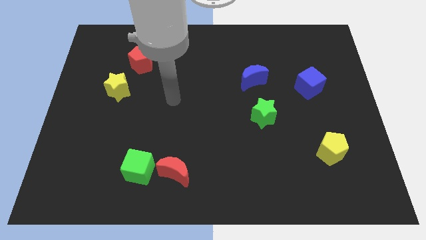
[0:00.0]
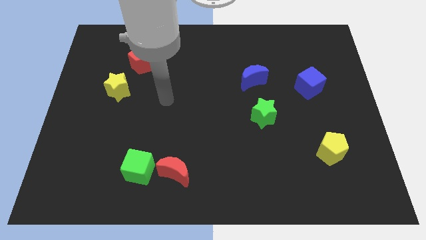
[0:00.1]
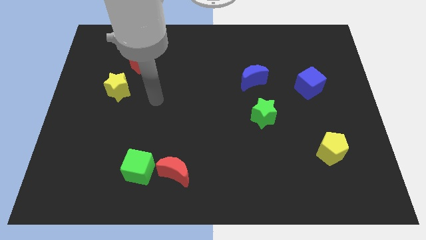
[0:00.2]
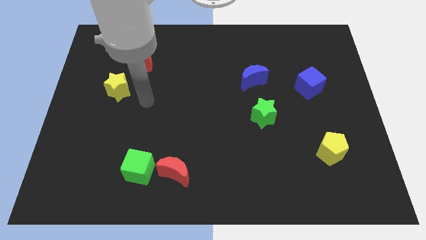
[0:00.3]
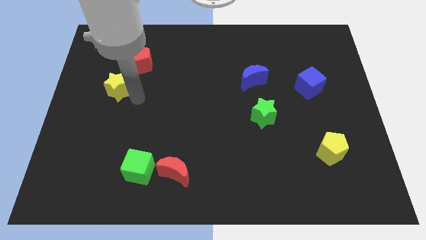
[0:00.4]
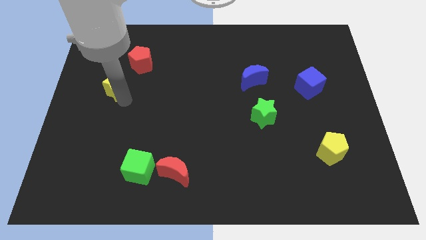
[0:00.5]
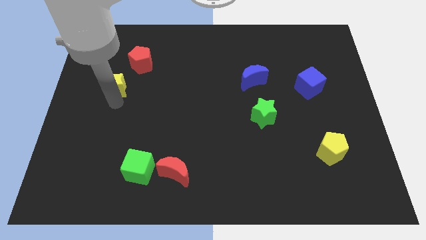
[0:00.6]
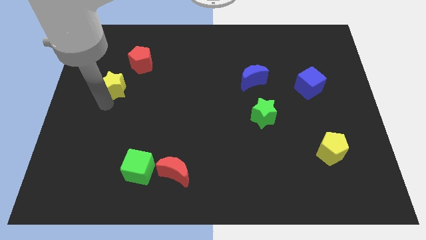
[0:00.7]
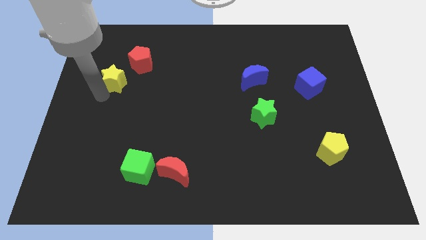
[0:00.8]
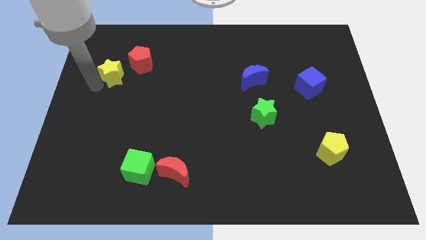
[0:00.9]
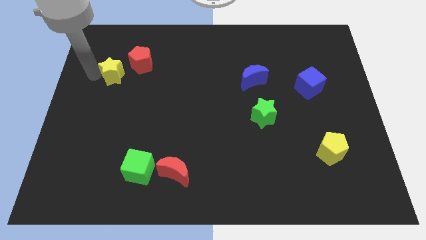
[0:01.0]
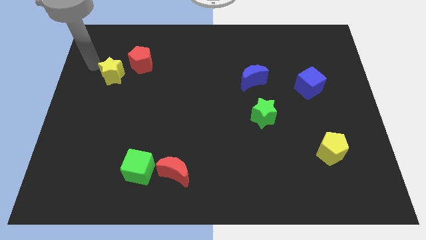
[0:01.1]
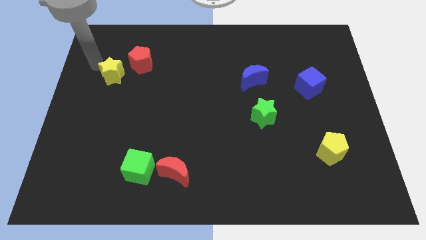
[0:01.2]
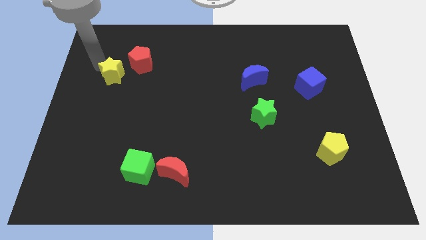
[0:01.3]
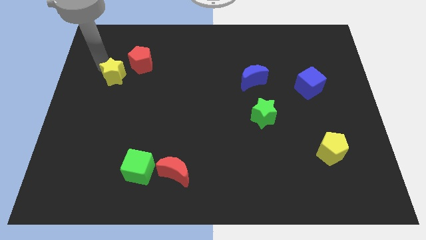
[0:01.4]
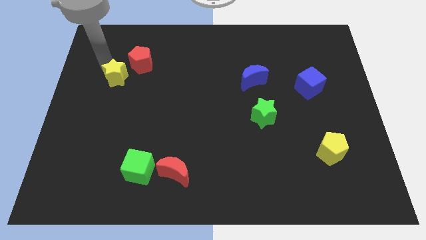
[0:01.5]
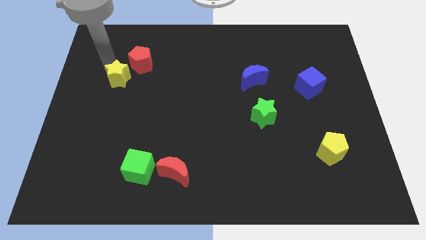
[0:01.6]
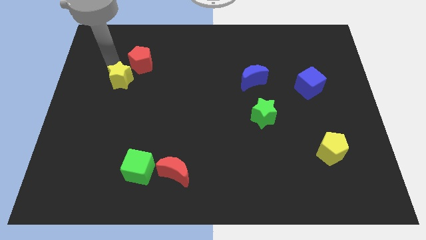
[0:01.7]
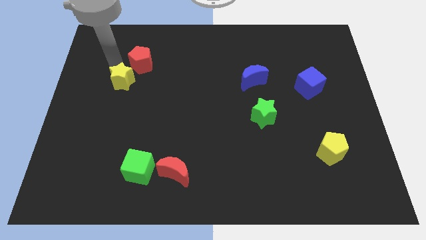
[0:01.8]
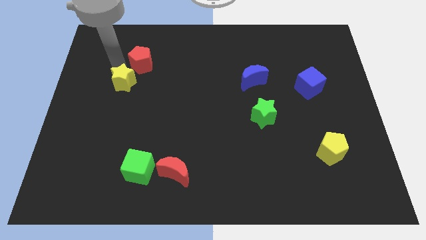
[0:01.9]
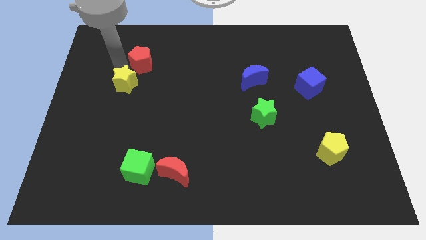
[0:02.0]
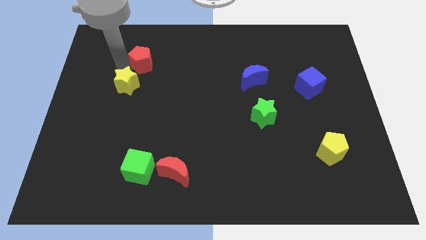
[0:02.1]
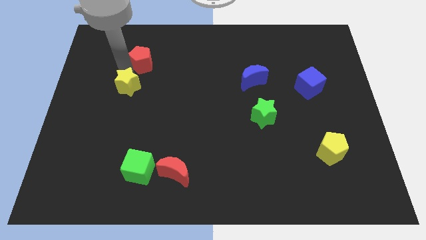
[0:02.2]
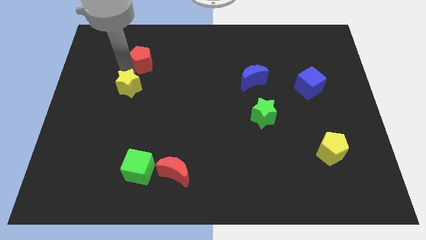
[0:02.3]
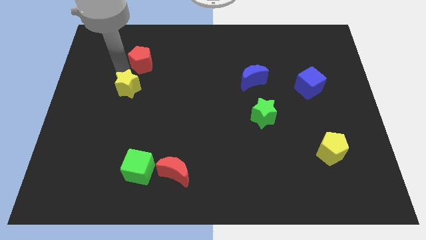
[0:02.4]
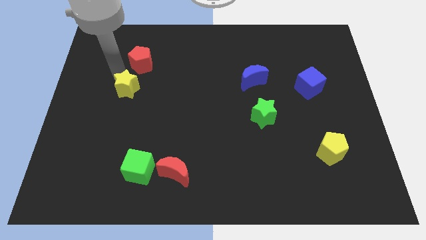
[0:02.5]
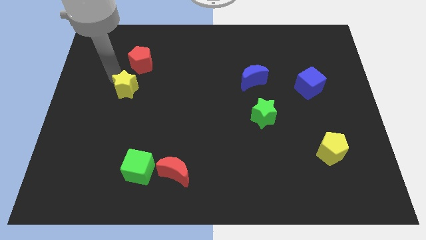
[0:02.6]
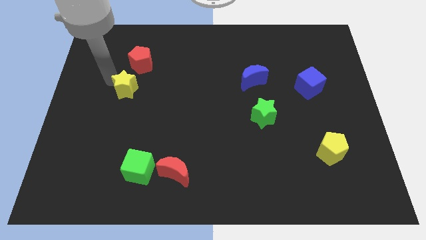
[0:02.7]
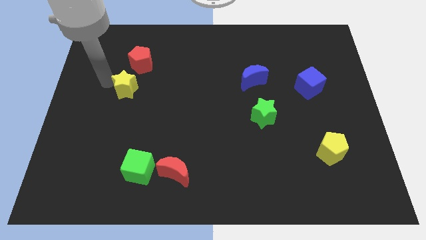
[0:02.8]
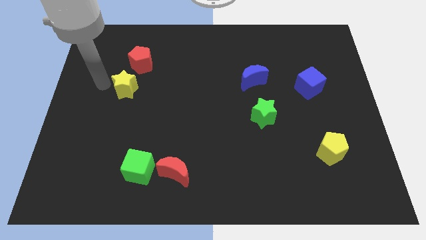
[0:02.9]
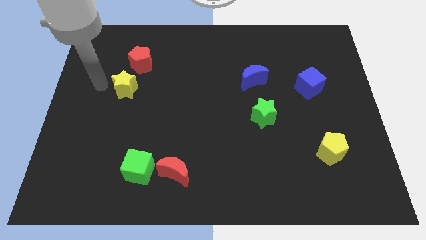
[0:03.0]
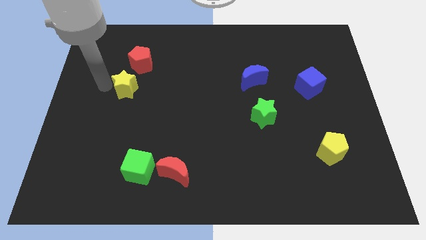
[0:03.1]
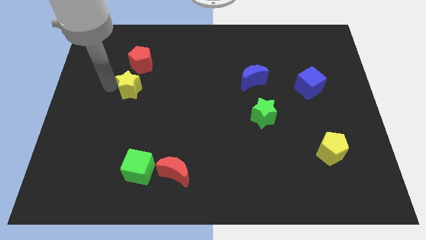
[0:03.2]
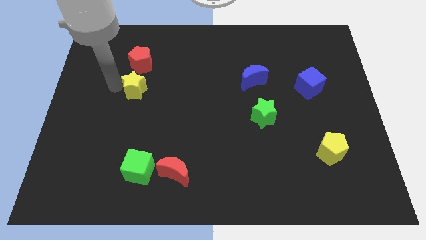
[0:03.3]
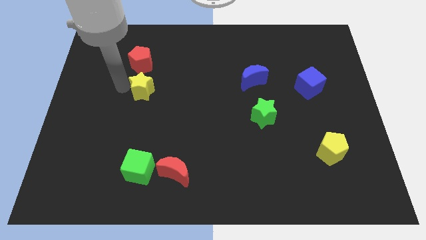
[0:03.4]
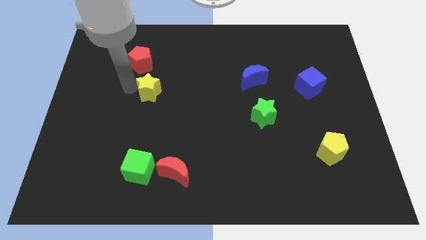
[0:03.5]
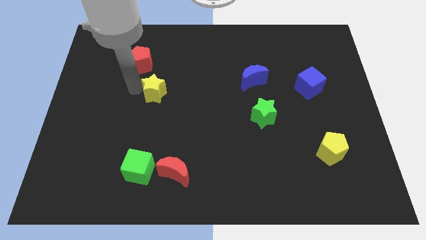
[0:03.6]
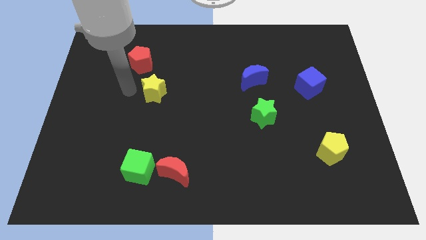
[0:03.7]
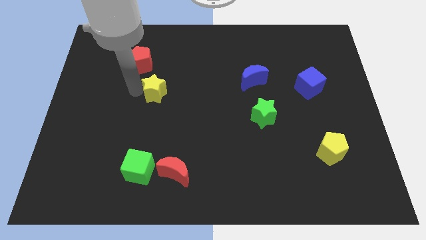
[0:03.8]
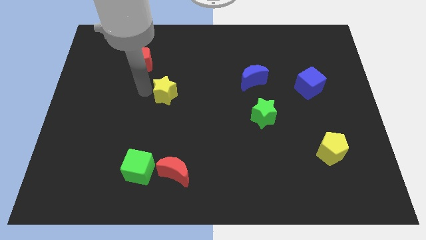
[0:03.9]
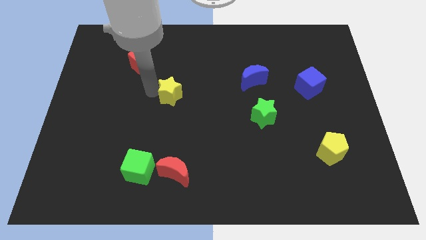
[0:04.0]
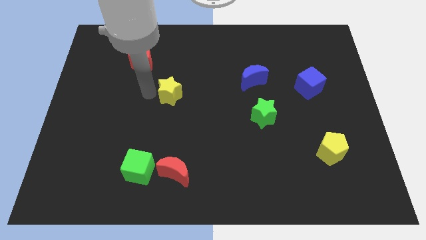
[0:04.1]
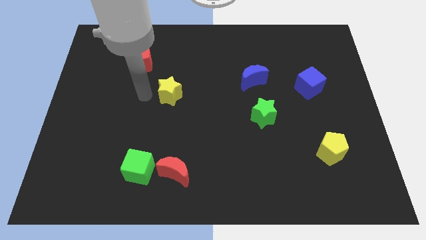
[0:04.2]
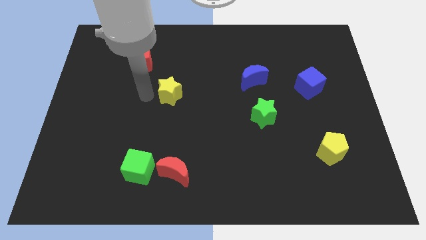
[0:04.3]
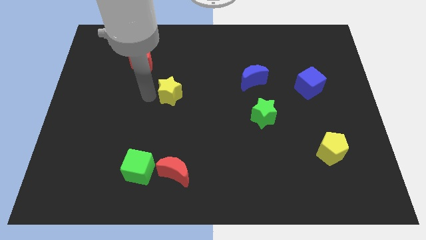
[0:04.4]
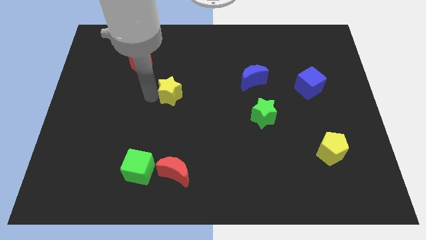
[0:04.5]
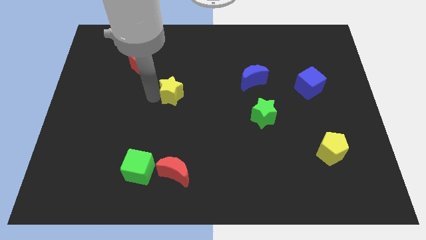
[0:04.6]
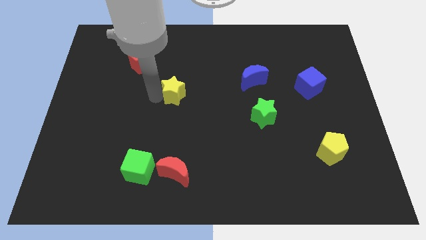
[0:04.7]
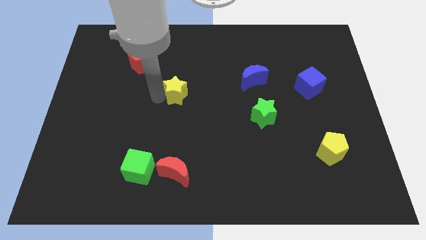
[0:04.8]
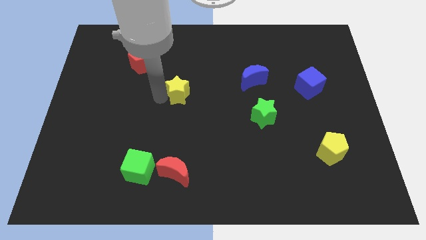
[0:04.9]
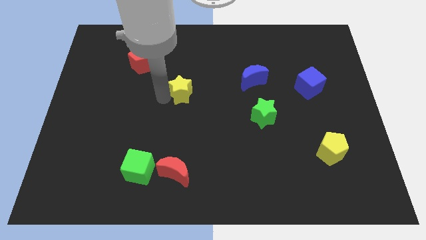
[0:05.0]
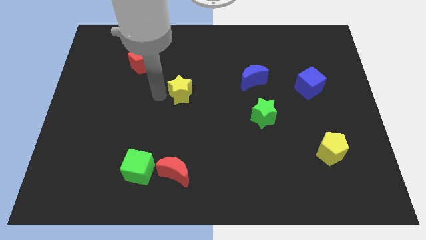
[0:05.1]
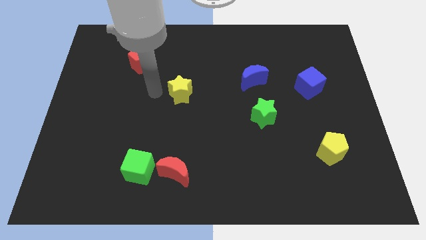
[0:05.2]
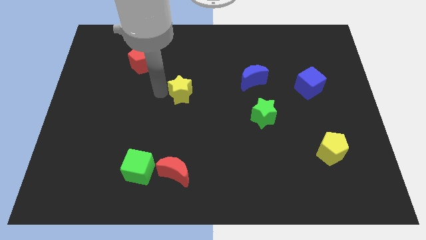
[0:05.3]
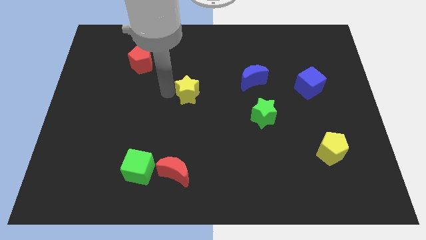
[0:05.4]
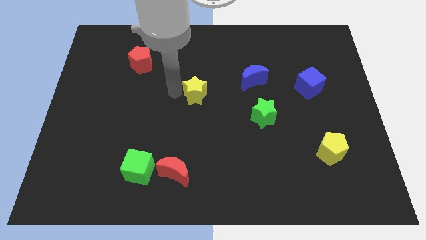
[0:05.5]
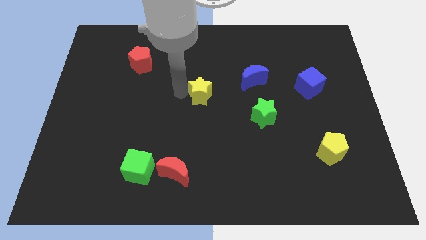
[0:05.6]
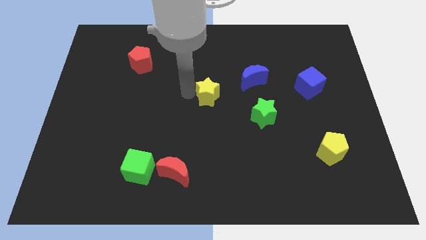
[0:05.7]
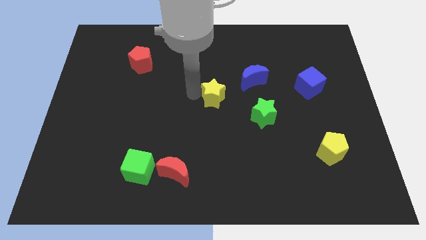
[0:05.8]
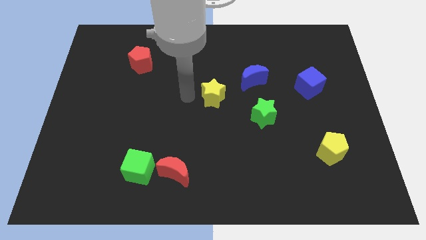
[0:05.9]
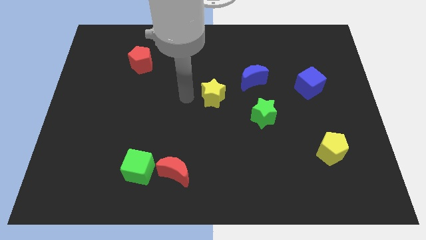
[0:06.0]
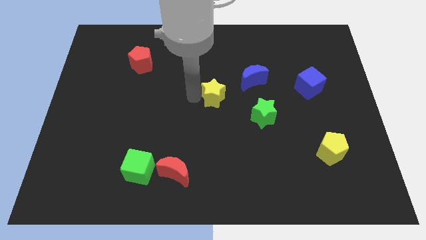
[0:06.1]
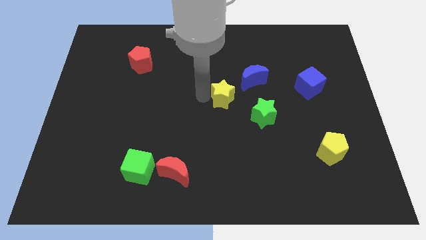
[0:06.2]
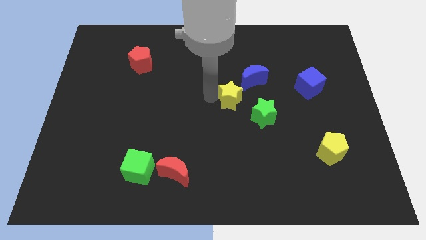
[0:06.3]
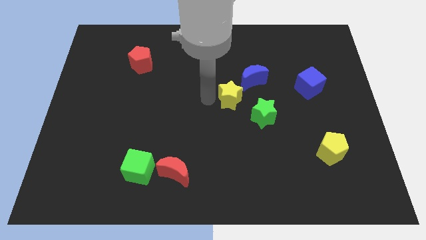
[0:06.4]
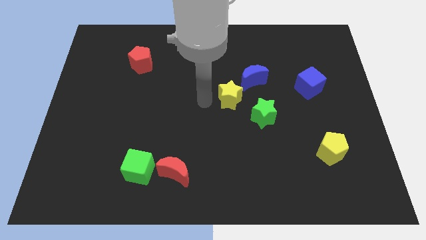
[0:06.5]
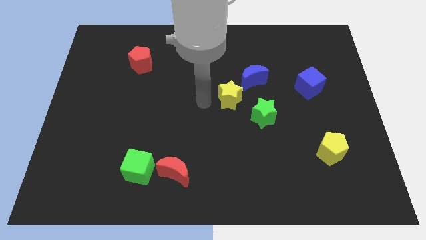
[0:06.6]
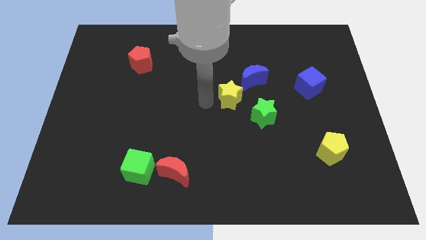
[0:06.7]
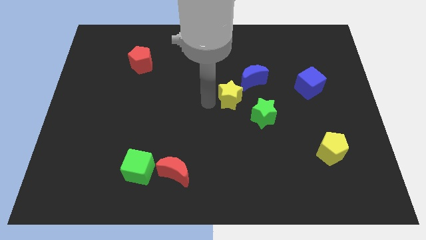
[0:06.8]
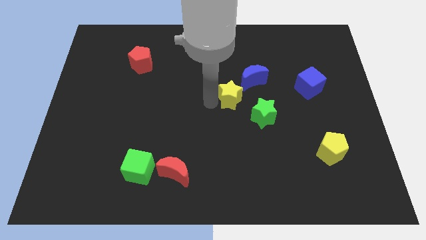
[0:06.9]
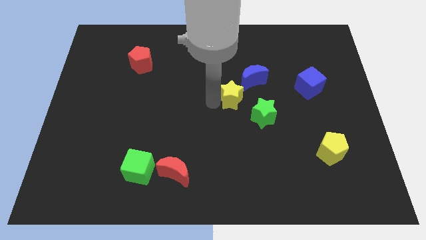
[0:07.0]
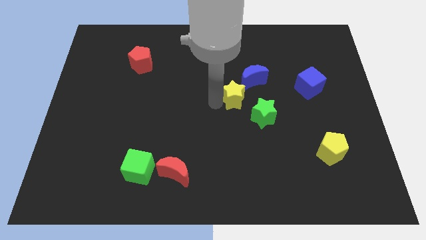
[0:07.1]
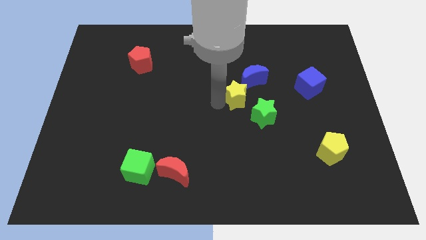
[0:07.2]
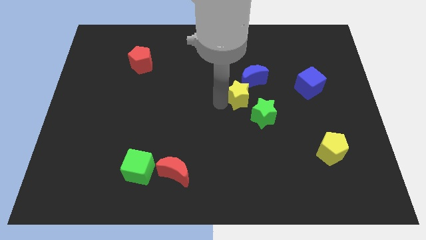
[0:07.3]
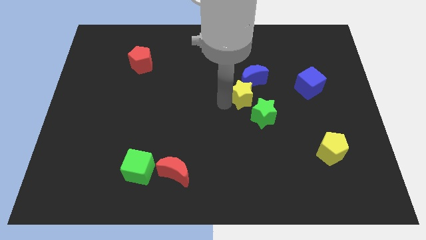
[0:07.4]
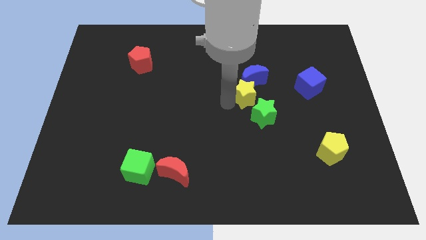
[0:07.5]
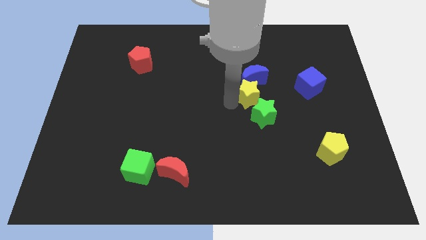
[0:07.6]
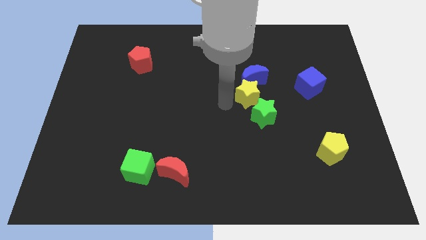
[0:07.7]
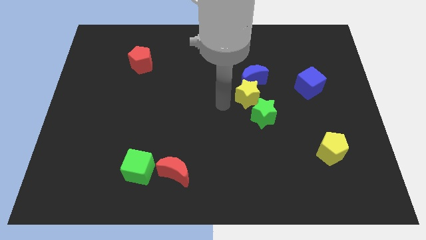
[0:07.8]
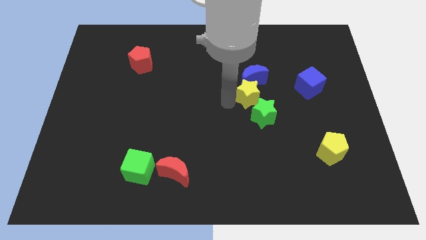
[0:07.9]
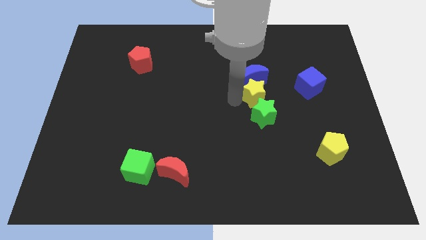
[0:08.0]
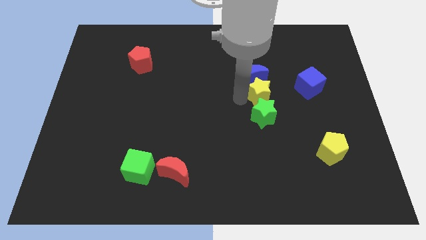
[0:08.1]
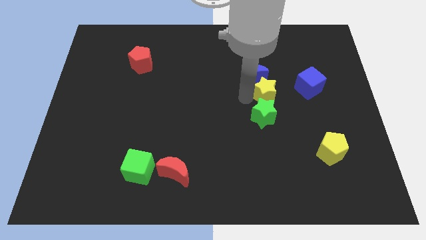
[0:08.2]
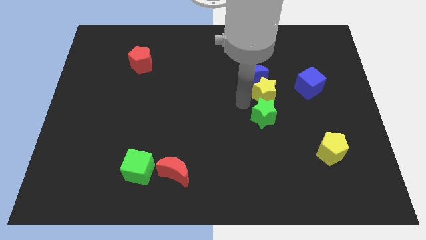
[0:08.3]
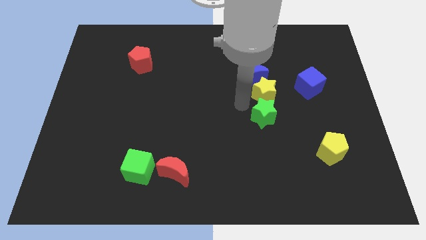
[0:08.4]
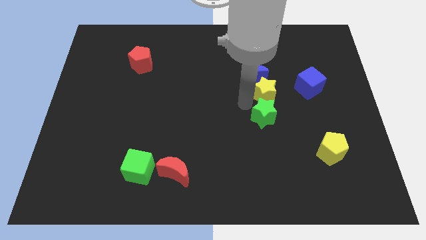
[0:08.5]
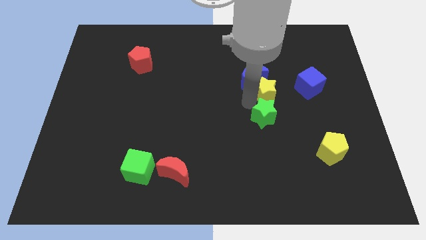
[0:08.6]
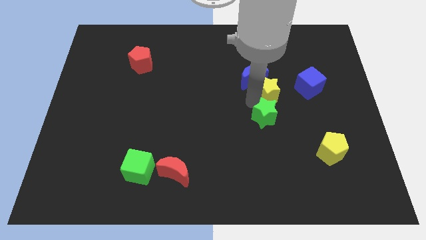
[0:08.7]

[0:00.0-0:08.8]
move the yellow star just right of the blue moon
